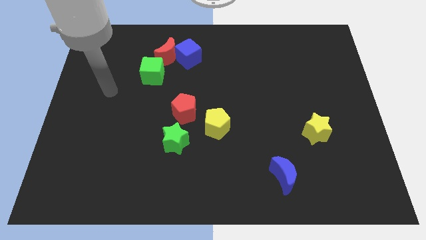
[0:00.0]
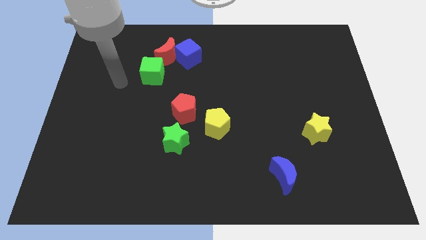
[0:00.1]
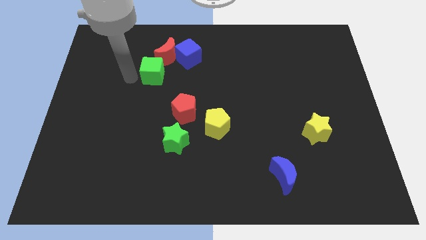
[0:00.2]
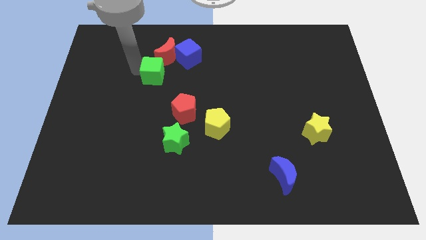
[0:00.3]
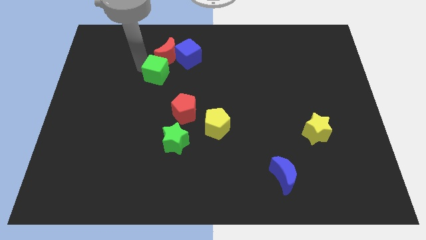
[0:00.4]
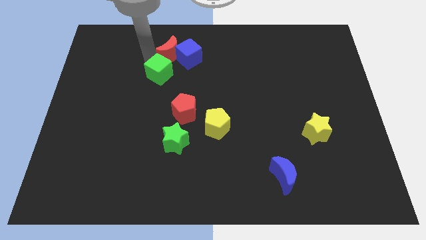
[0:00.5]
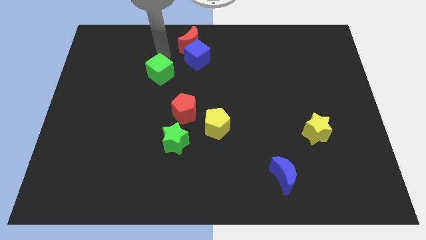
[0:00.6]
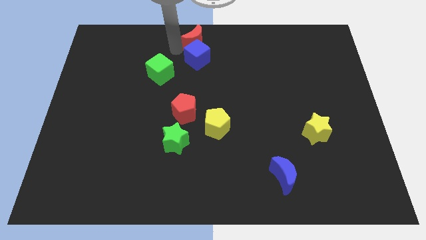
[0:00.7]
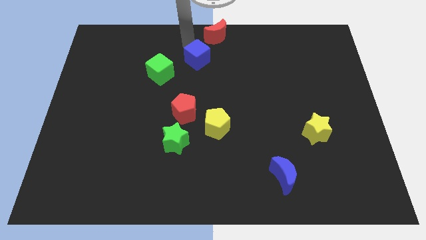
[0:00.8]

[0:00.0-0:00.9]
separate the blue cube from the red moon

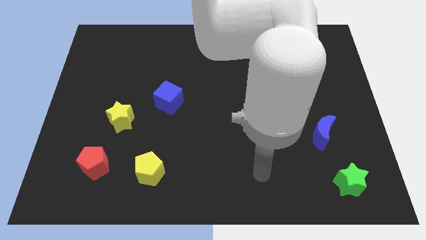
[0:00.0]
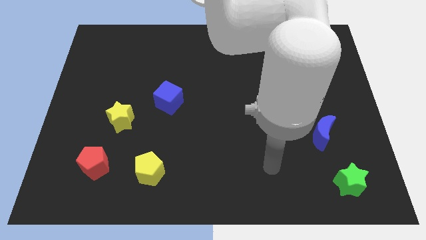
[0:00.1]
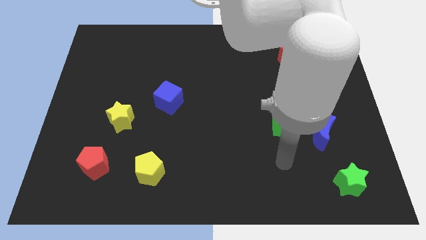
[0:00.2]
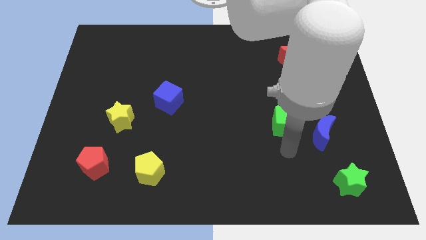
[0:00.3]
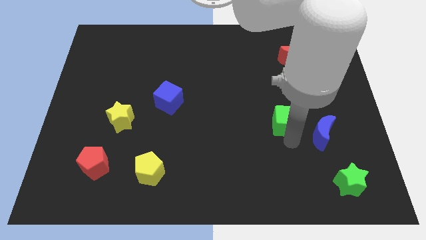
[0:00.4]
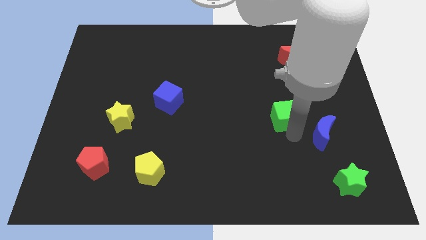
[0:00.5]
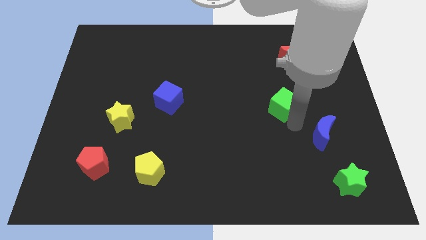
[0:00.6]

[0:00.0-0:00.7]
separate the blue moon from the green cube

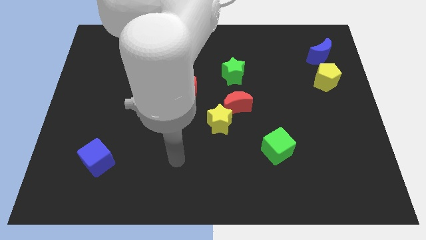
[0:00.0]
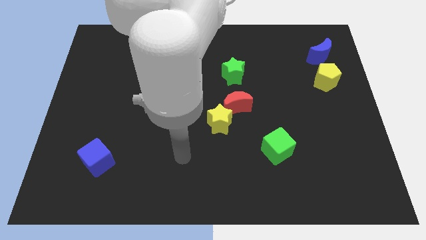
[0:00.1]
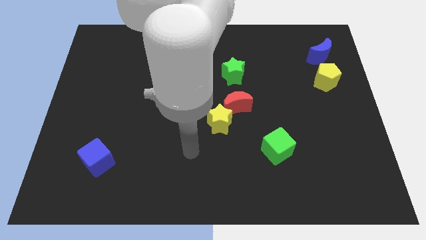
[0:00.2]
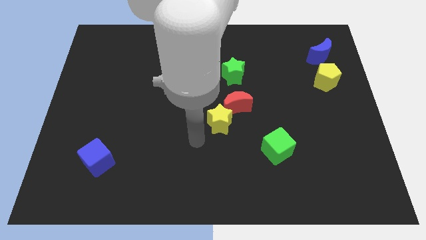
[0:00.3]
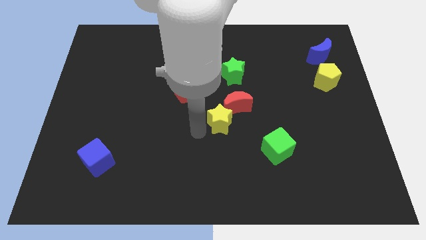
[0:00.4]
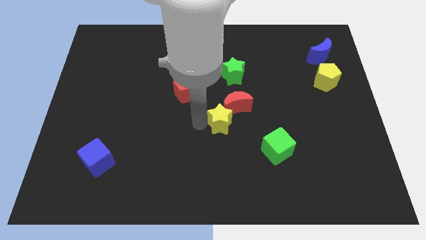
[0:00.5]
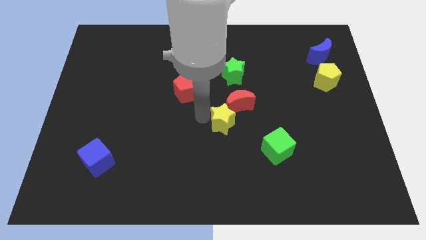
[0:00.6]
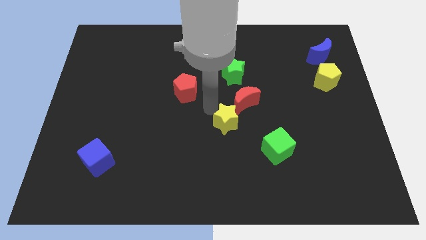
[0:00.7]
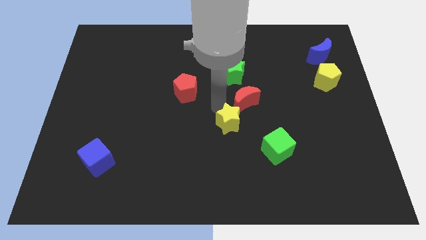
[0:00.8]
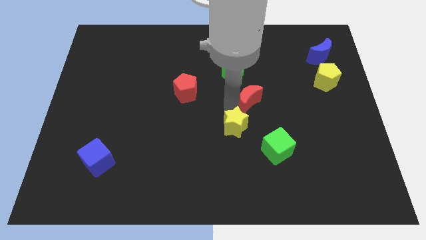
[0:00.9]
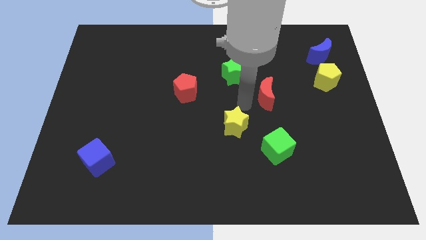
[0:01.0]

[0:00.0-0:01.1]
pull the yellow star apart from the red moon

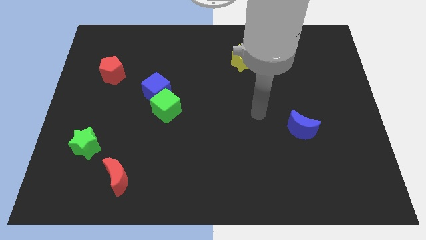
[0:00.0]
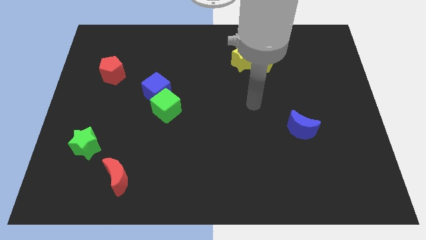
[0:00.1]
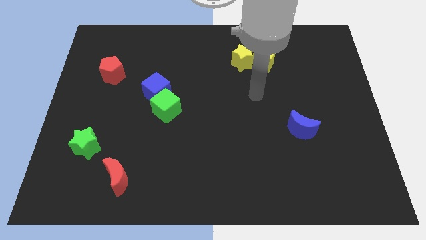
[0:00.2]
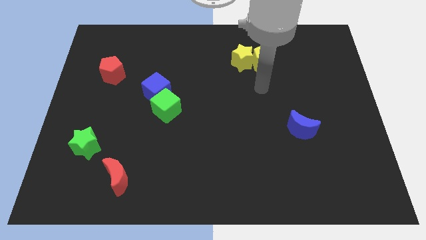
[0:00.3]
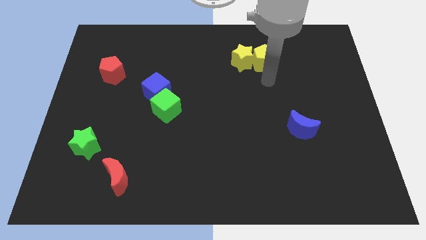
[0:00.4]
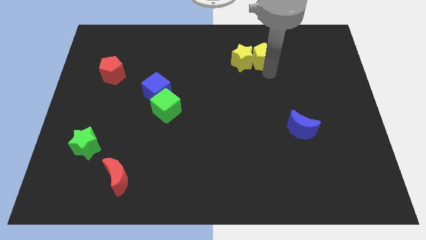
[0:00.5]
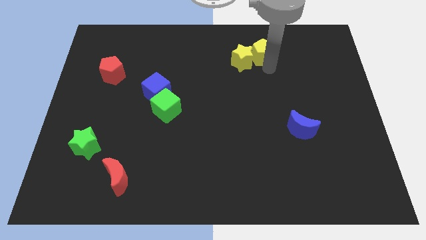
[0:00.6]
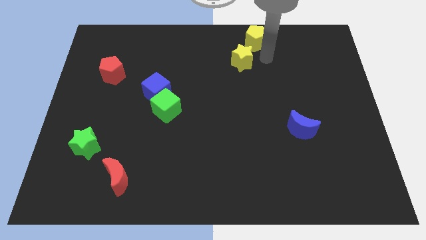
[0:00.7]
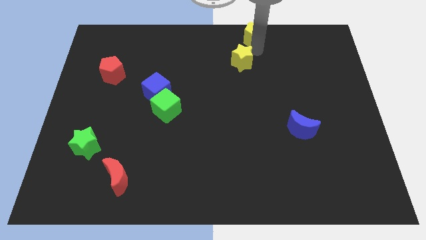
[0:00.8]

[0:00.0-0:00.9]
separate the yellow star from the yellow pentagon

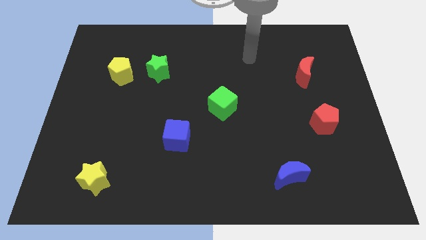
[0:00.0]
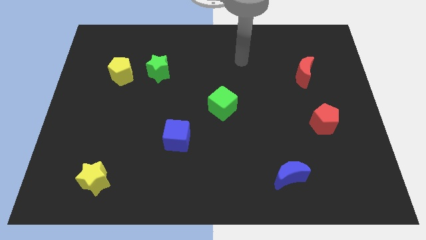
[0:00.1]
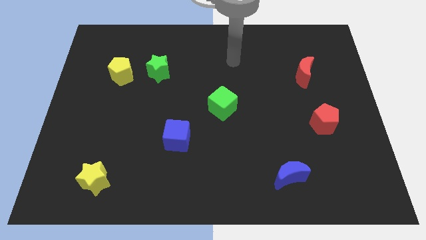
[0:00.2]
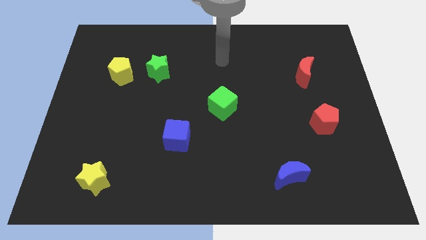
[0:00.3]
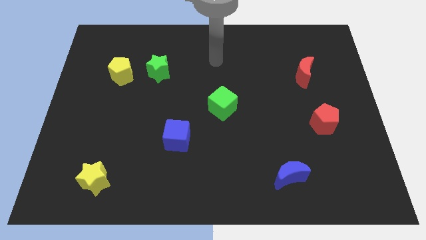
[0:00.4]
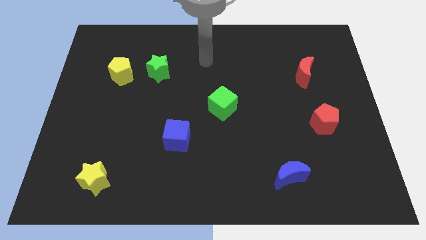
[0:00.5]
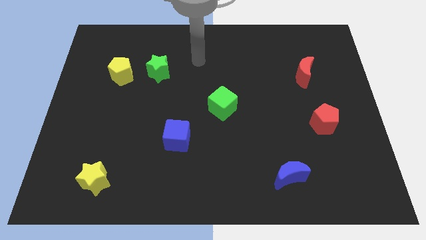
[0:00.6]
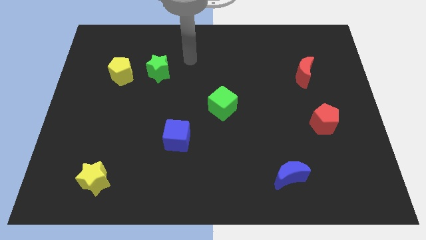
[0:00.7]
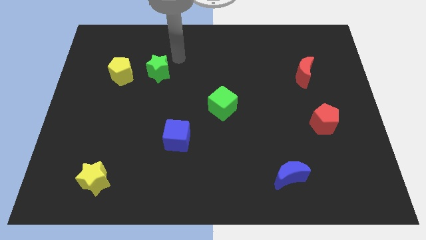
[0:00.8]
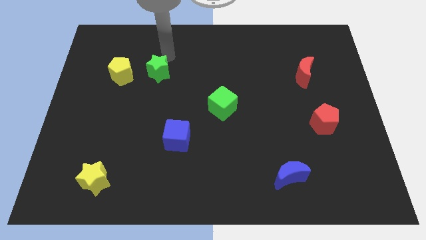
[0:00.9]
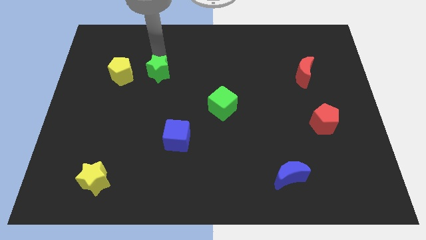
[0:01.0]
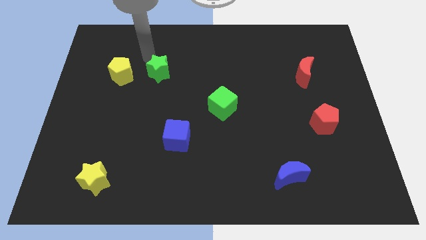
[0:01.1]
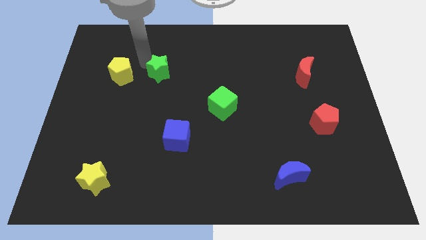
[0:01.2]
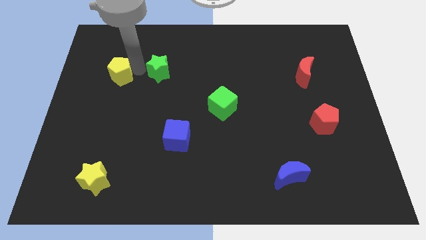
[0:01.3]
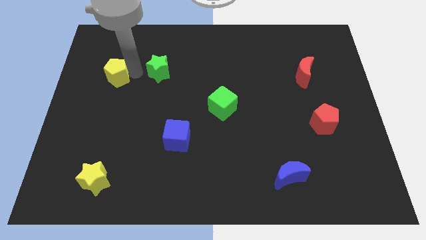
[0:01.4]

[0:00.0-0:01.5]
separate the green star from the yellow pentagon

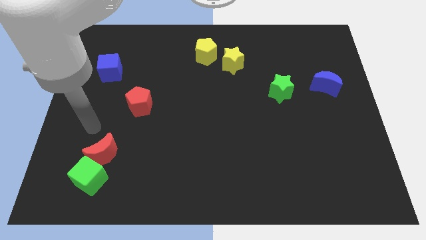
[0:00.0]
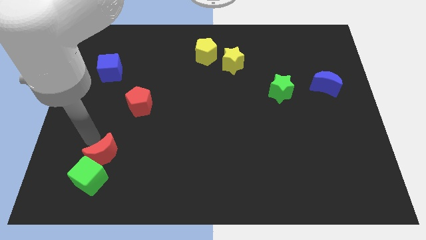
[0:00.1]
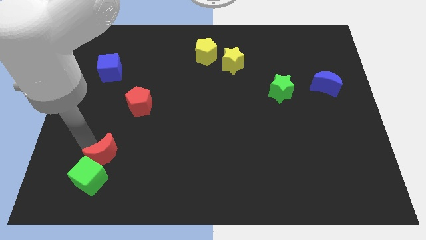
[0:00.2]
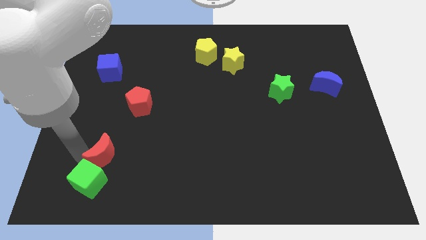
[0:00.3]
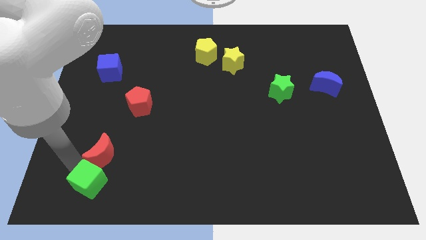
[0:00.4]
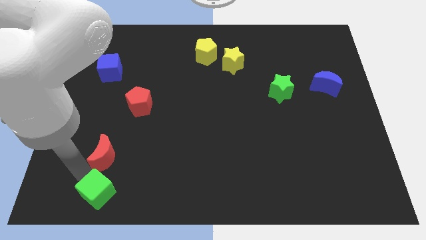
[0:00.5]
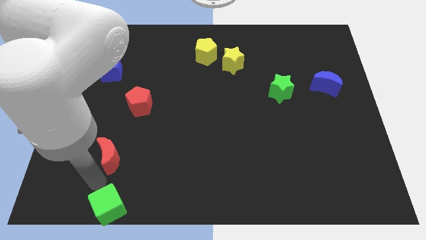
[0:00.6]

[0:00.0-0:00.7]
separate the red moon from the green cube

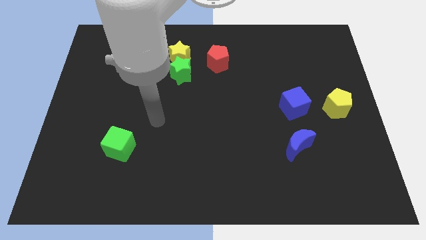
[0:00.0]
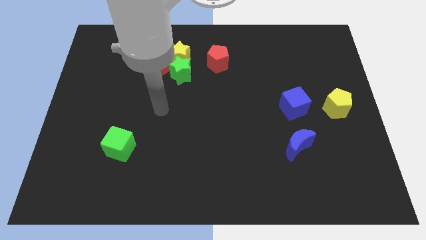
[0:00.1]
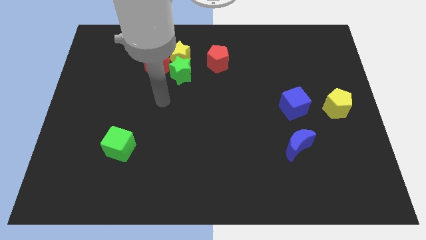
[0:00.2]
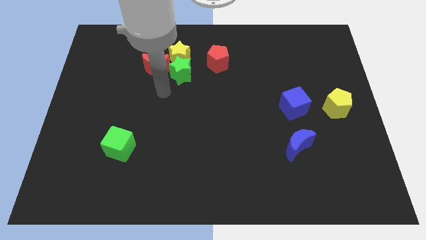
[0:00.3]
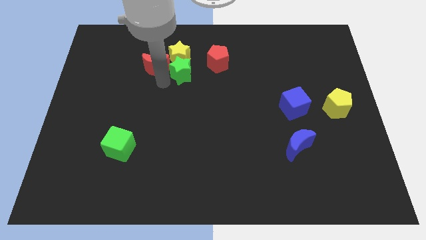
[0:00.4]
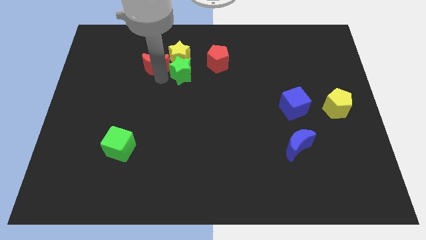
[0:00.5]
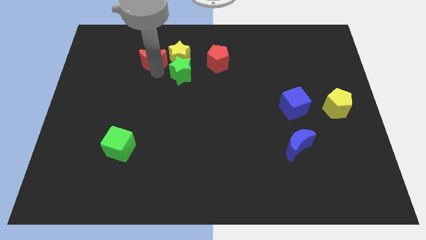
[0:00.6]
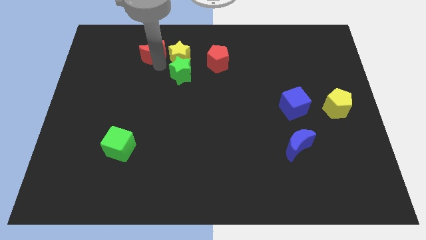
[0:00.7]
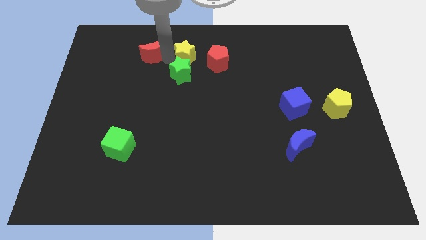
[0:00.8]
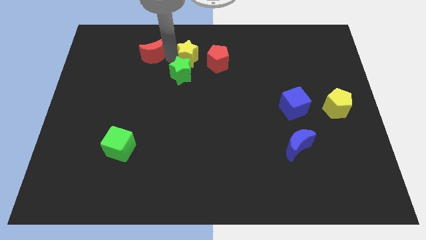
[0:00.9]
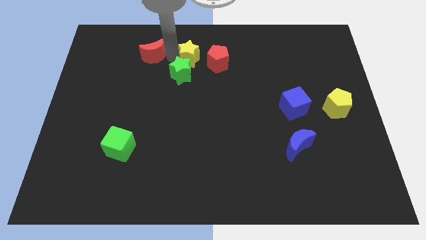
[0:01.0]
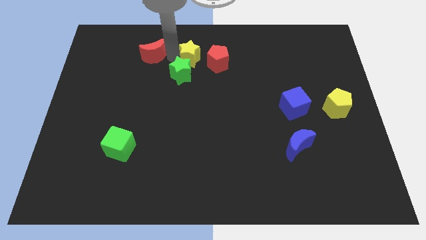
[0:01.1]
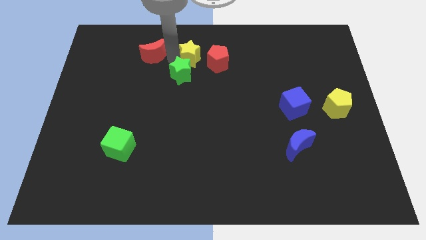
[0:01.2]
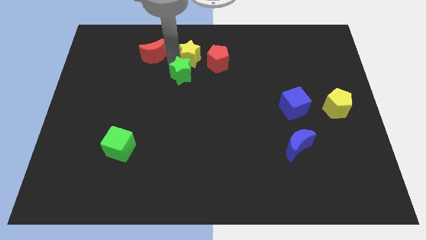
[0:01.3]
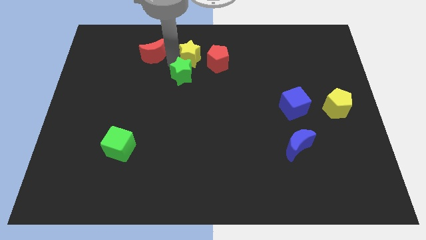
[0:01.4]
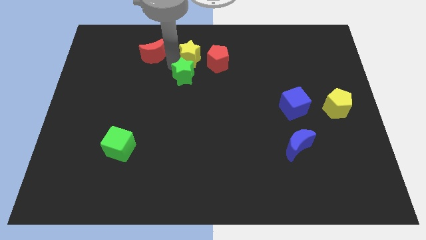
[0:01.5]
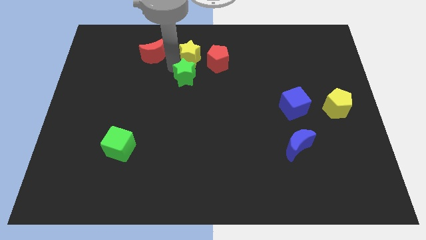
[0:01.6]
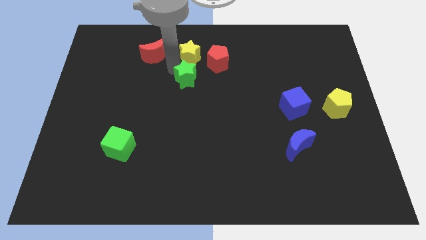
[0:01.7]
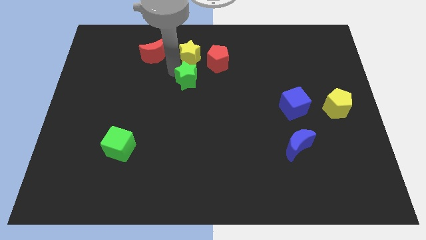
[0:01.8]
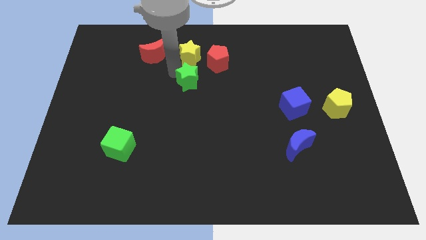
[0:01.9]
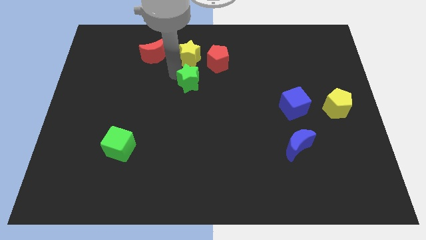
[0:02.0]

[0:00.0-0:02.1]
pull the green star apart from the yellow star and red moon

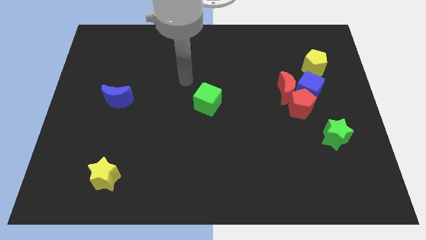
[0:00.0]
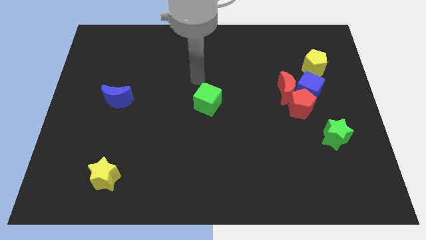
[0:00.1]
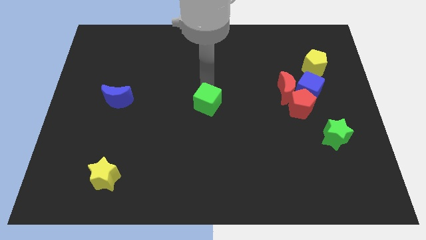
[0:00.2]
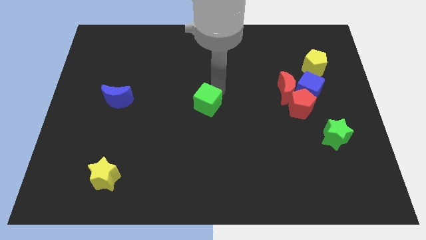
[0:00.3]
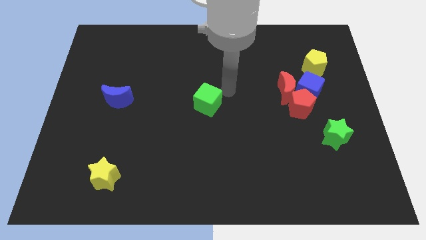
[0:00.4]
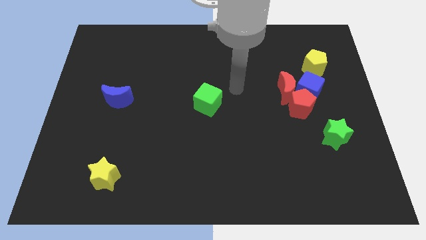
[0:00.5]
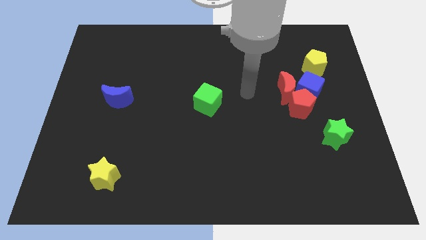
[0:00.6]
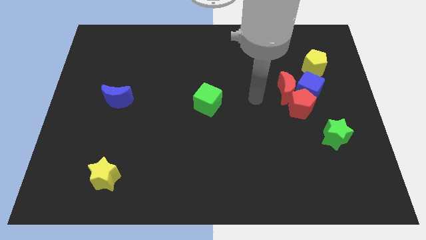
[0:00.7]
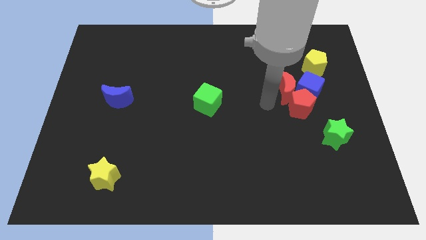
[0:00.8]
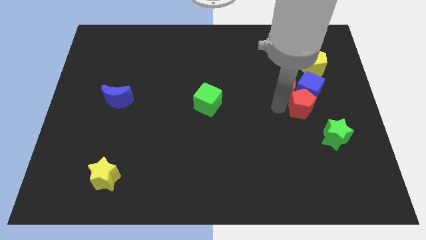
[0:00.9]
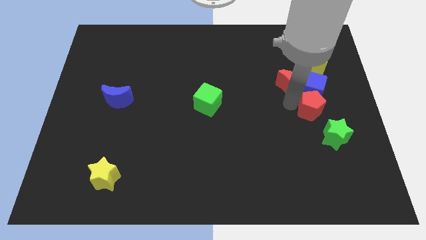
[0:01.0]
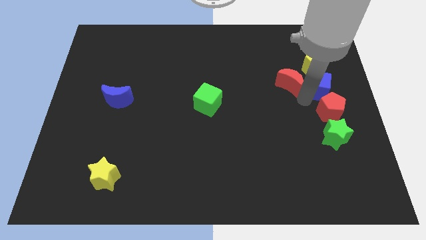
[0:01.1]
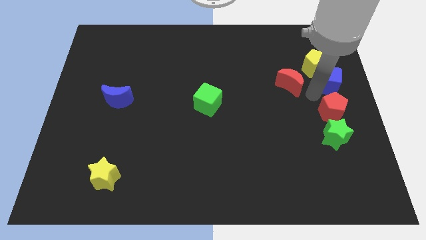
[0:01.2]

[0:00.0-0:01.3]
move the red moon away from the blue cube and red pentagon

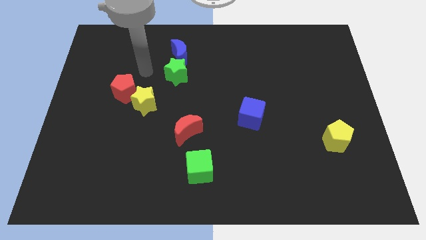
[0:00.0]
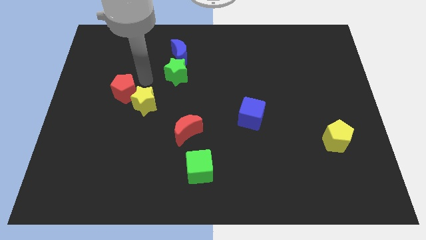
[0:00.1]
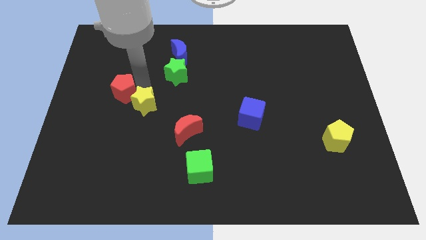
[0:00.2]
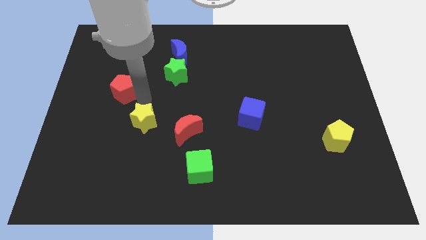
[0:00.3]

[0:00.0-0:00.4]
separate the red pentagon from the yellow star
